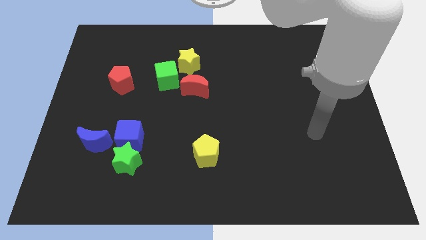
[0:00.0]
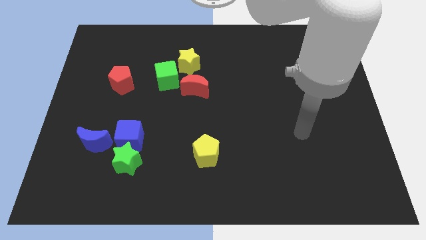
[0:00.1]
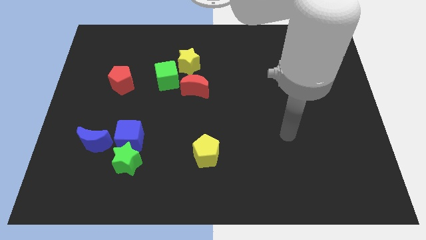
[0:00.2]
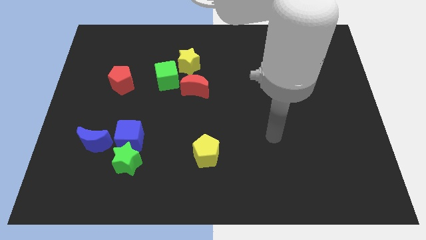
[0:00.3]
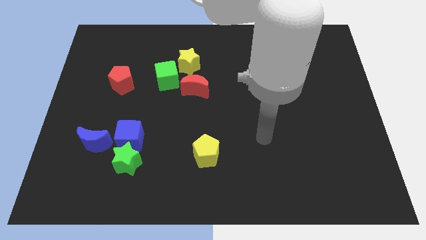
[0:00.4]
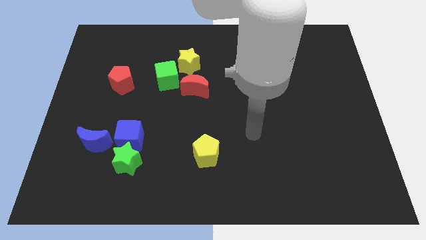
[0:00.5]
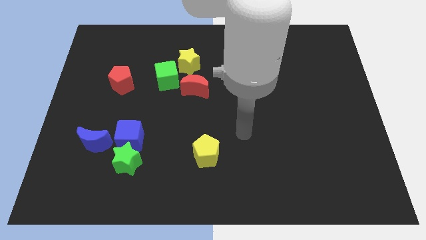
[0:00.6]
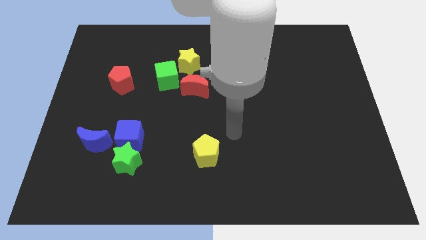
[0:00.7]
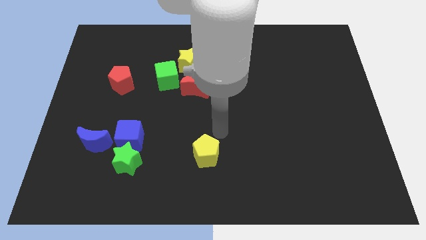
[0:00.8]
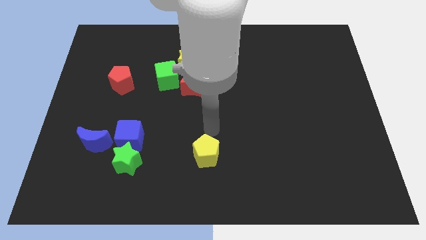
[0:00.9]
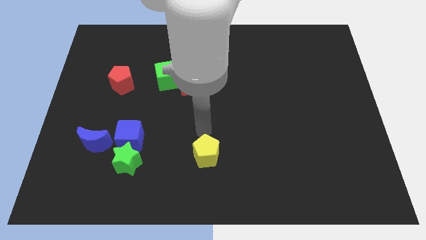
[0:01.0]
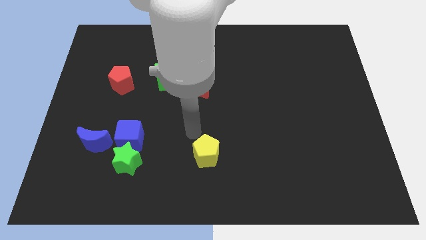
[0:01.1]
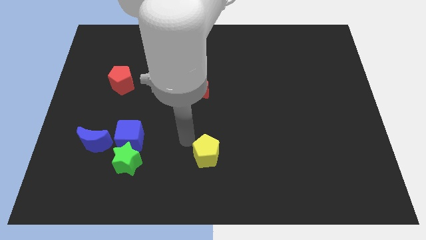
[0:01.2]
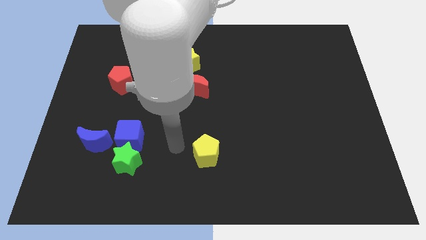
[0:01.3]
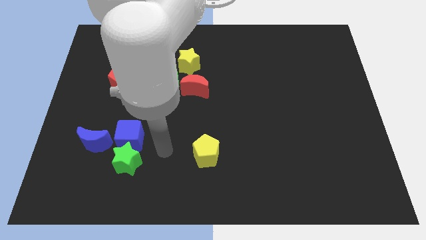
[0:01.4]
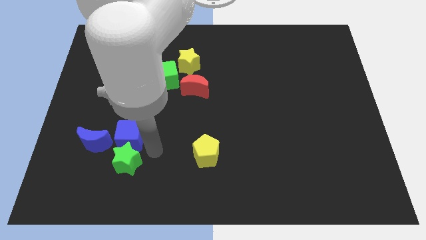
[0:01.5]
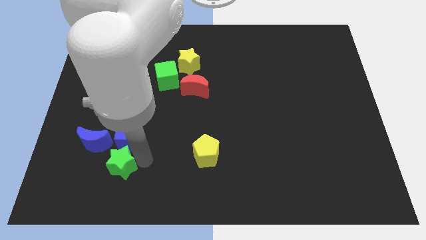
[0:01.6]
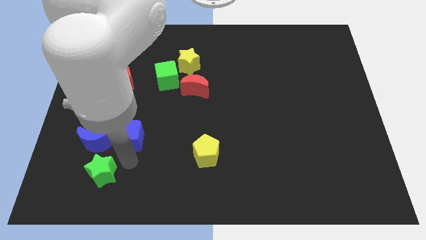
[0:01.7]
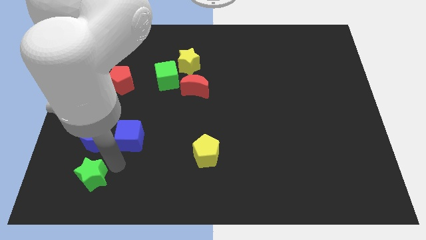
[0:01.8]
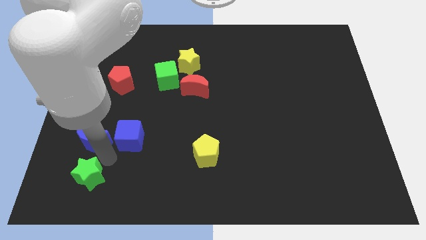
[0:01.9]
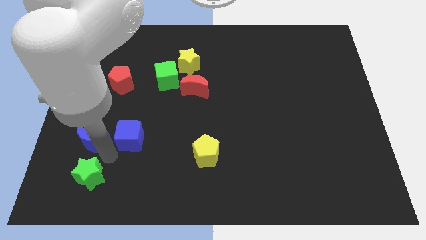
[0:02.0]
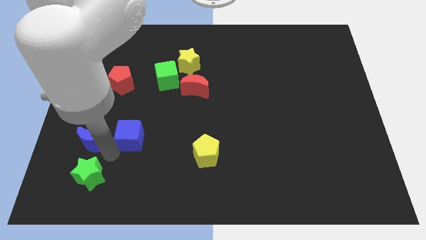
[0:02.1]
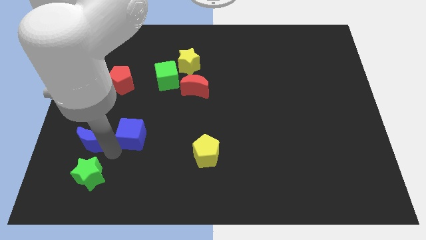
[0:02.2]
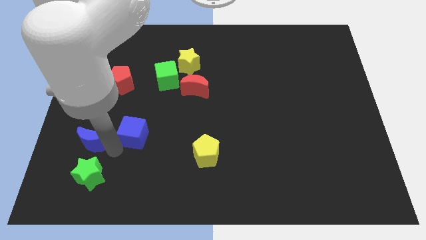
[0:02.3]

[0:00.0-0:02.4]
pull the blue cube apart from the green star and blue moon

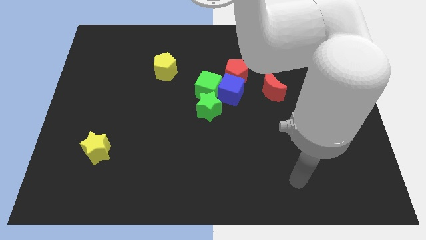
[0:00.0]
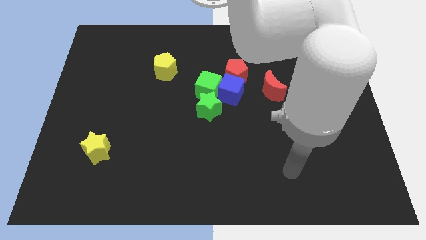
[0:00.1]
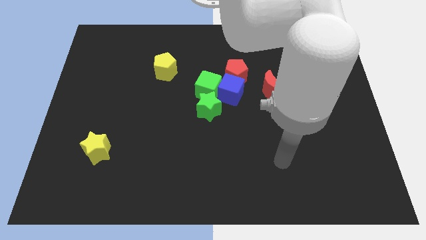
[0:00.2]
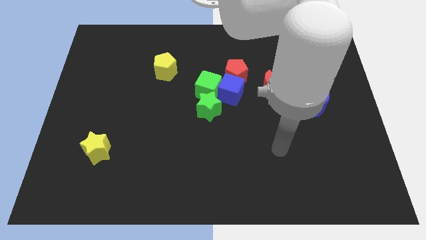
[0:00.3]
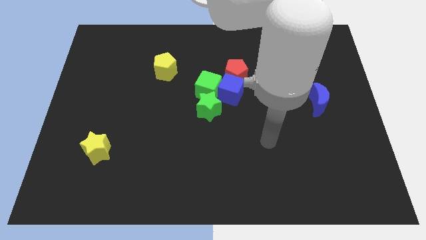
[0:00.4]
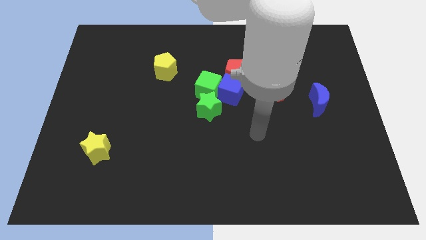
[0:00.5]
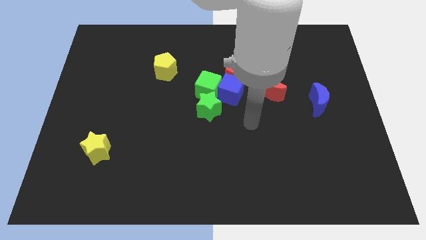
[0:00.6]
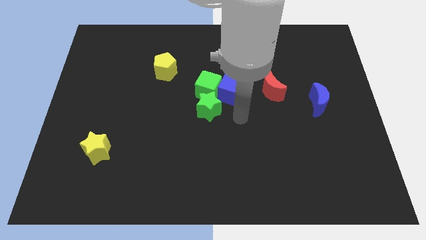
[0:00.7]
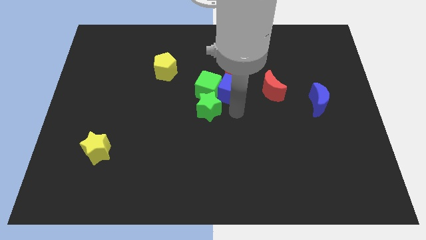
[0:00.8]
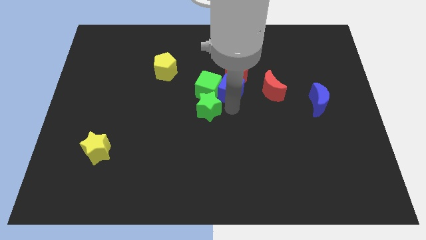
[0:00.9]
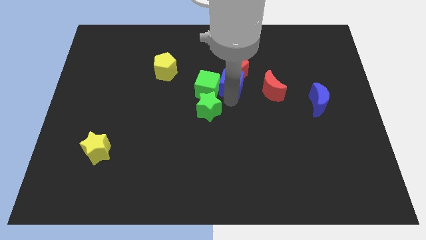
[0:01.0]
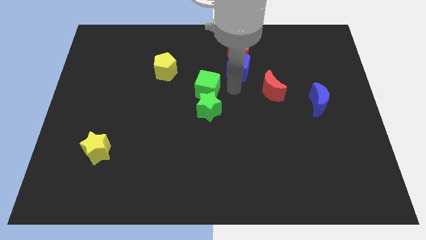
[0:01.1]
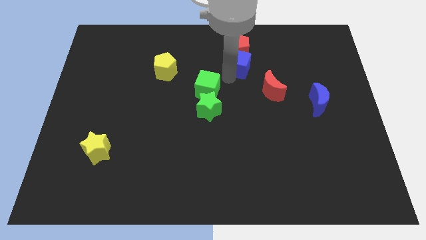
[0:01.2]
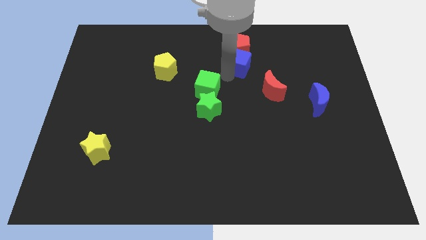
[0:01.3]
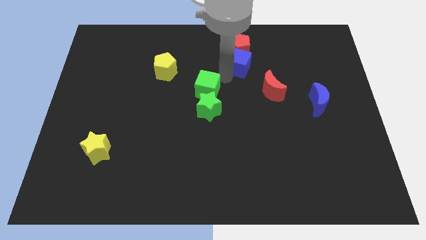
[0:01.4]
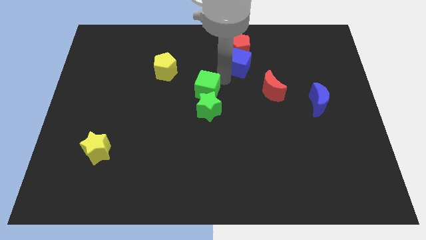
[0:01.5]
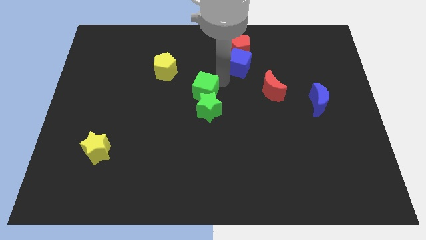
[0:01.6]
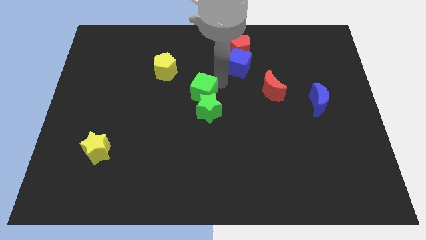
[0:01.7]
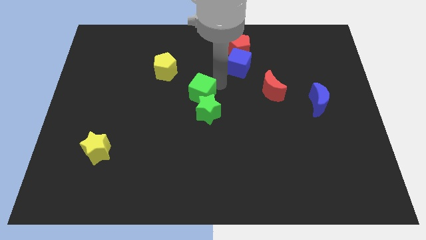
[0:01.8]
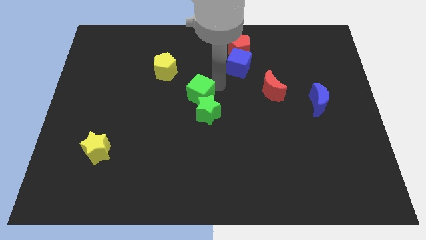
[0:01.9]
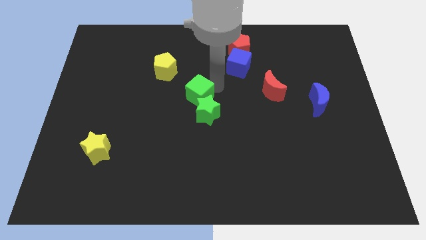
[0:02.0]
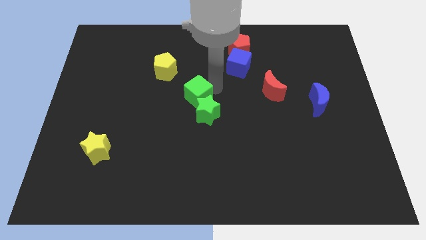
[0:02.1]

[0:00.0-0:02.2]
move the green cube away from the group of blocks

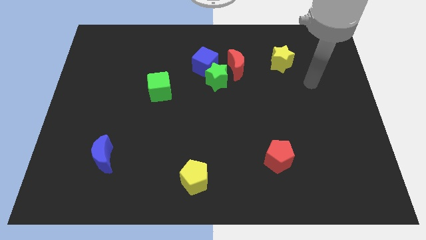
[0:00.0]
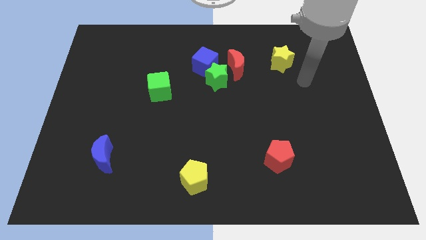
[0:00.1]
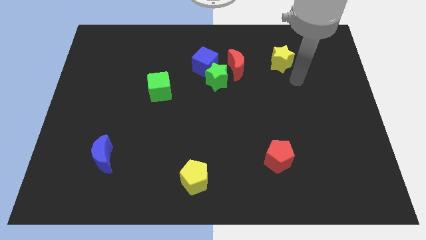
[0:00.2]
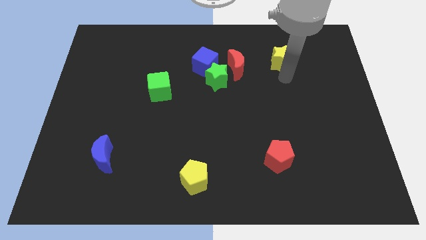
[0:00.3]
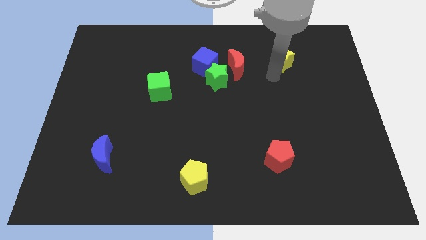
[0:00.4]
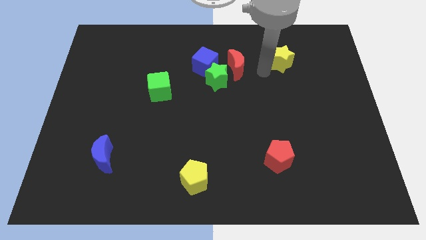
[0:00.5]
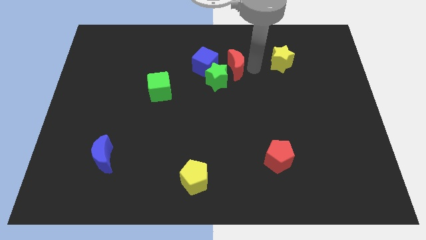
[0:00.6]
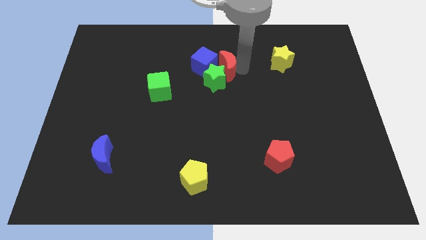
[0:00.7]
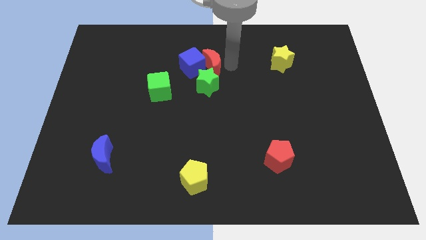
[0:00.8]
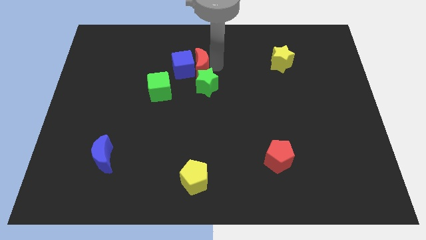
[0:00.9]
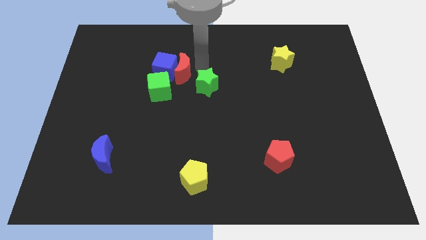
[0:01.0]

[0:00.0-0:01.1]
pull the green star apart from the blue cube and red moon

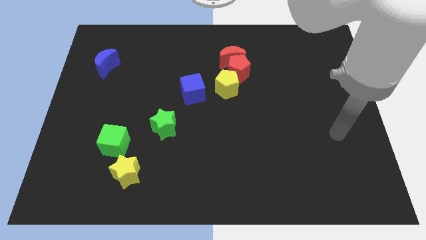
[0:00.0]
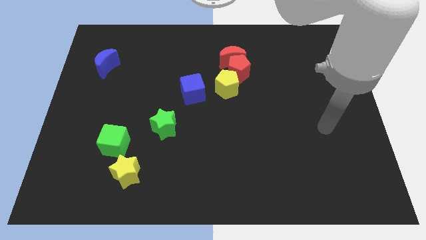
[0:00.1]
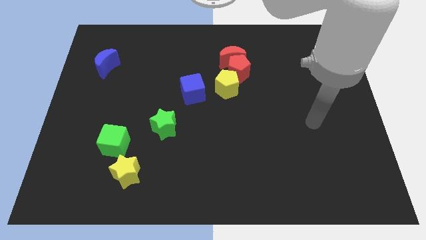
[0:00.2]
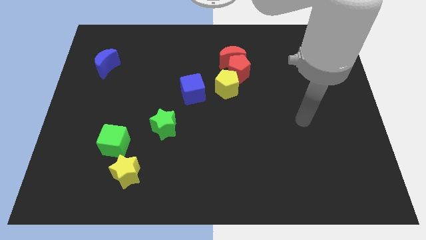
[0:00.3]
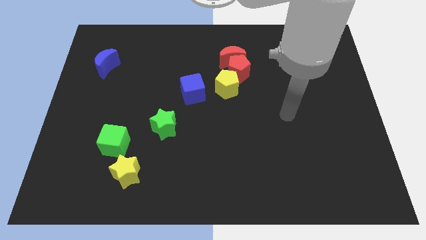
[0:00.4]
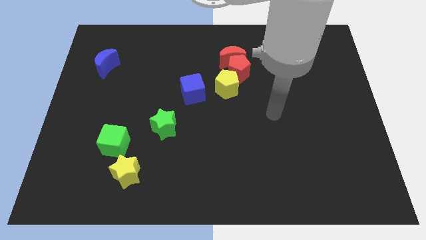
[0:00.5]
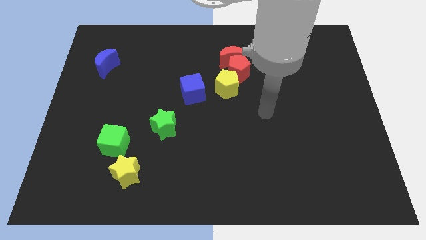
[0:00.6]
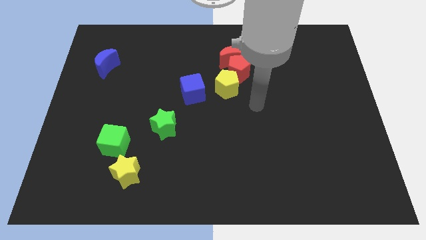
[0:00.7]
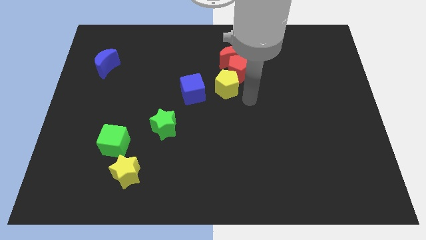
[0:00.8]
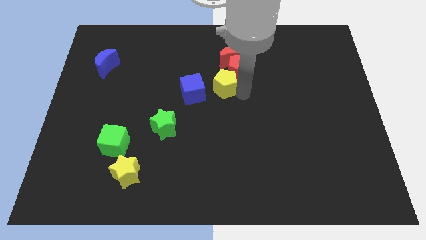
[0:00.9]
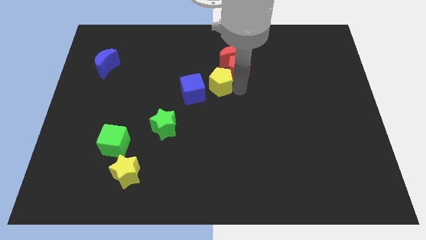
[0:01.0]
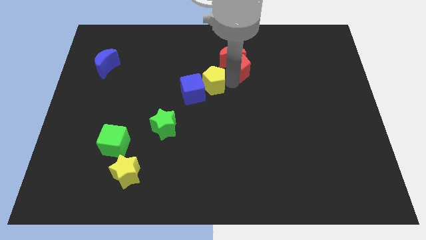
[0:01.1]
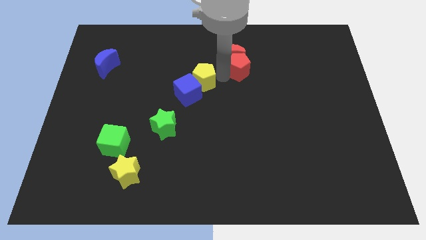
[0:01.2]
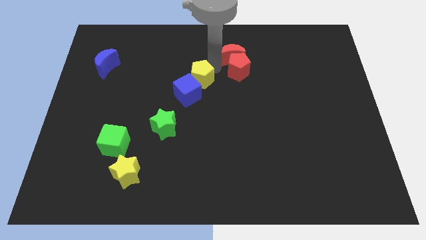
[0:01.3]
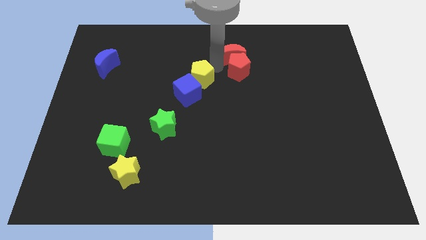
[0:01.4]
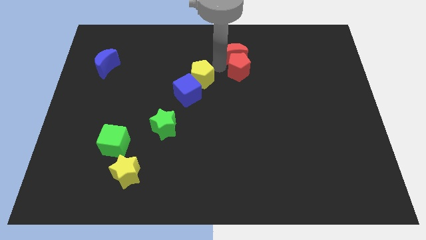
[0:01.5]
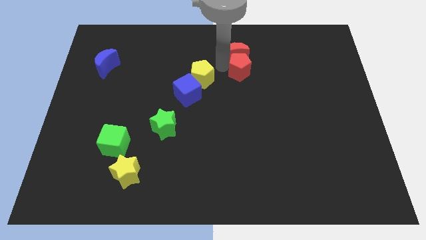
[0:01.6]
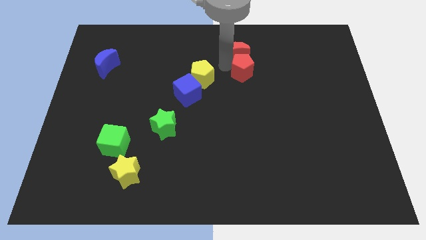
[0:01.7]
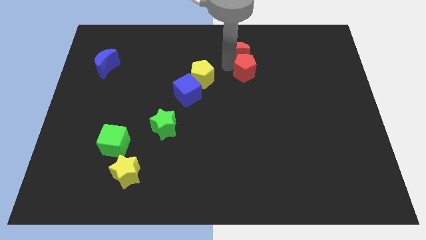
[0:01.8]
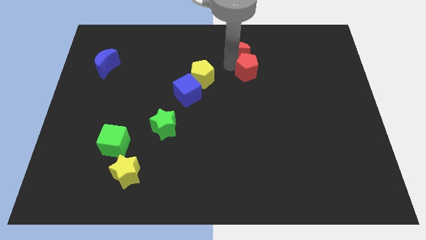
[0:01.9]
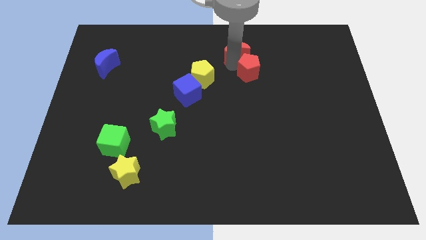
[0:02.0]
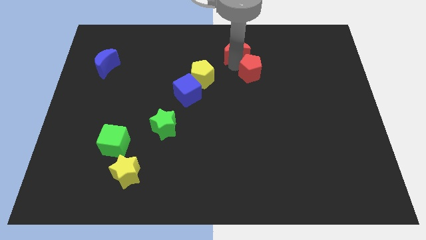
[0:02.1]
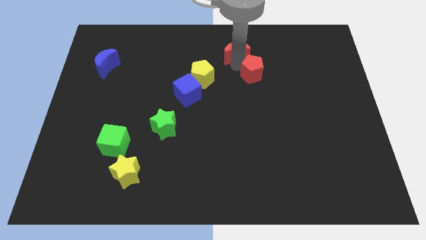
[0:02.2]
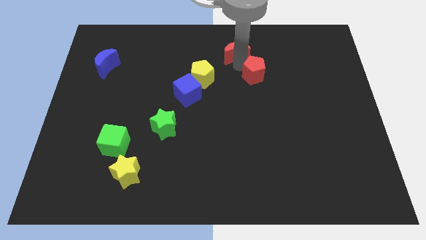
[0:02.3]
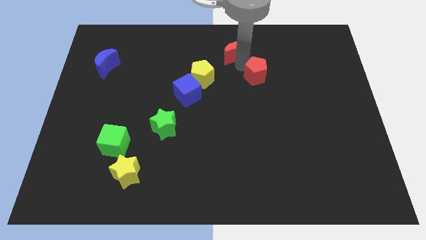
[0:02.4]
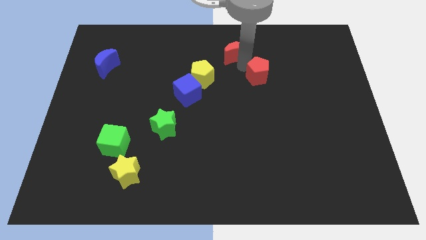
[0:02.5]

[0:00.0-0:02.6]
pull the red pentagon apart from the red moon and yellow pentagon

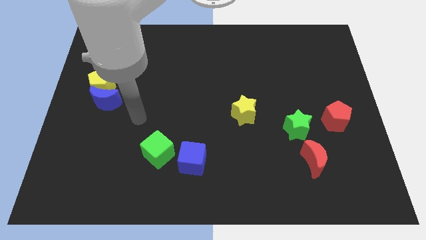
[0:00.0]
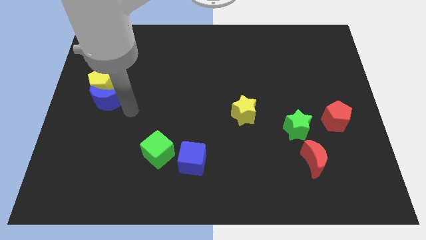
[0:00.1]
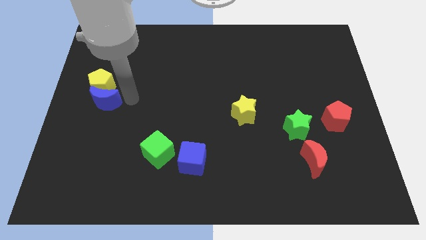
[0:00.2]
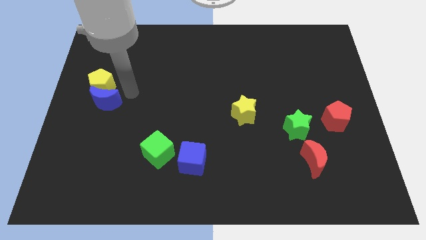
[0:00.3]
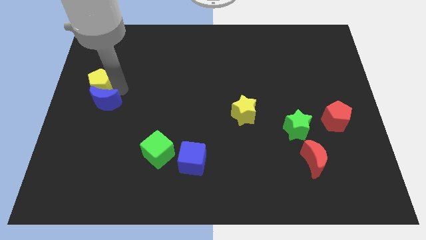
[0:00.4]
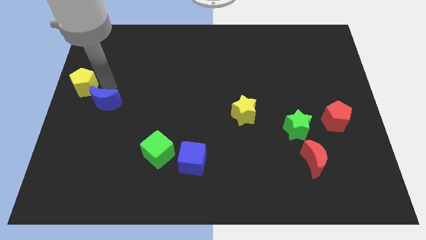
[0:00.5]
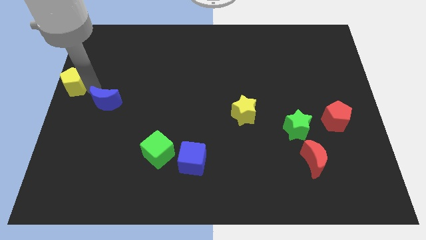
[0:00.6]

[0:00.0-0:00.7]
separate the blue moon from the yellow pentagon

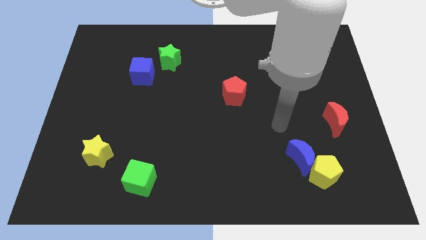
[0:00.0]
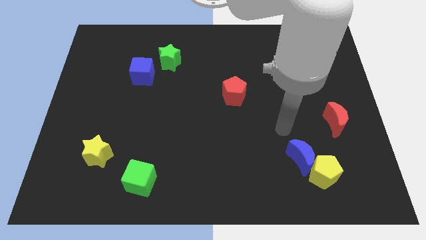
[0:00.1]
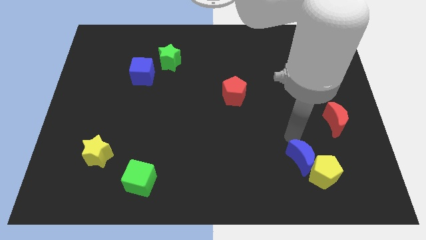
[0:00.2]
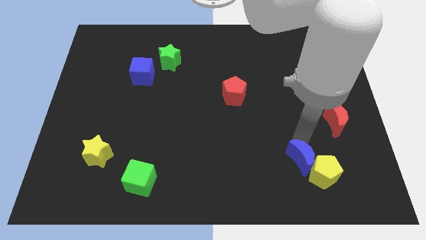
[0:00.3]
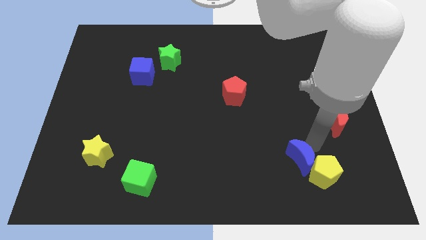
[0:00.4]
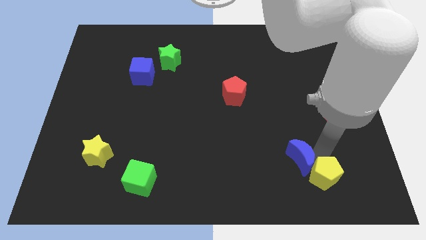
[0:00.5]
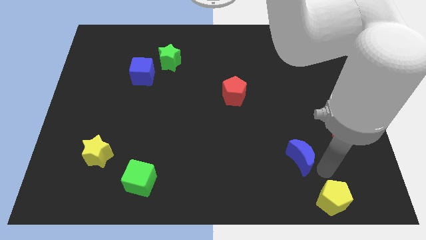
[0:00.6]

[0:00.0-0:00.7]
pull the blue moon apart from the yellow pentagon
